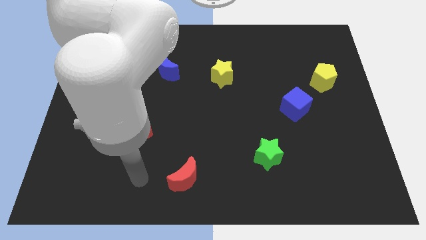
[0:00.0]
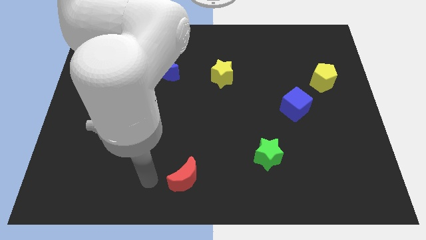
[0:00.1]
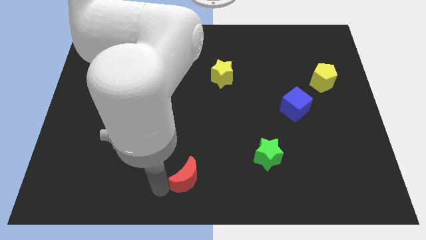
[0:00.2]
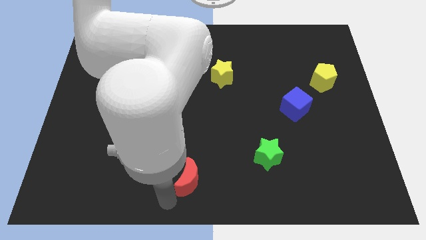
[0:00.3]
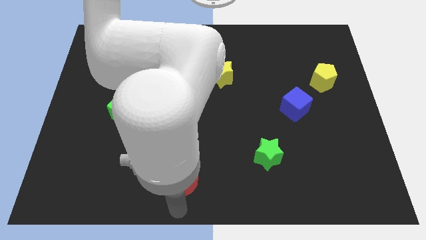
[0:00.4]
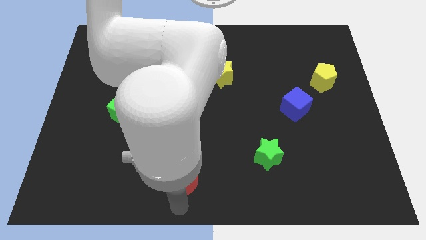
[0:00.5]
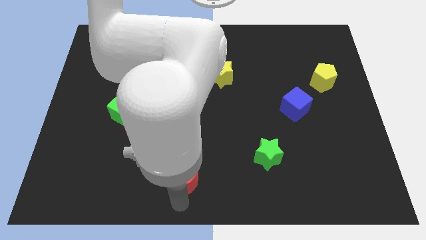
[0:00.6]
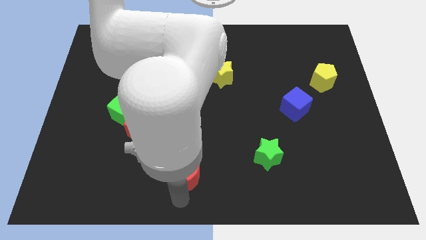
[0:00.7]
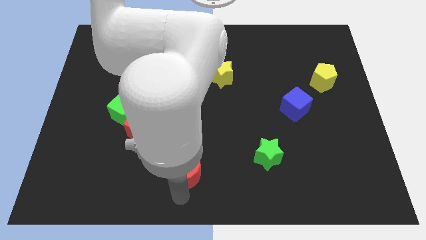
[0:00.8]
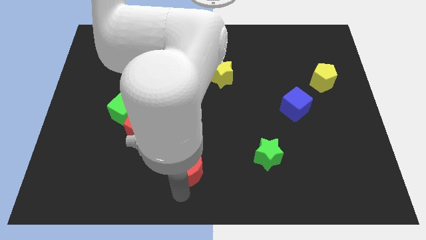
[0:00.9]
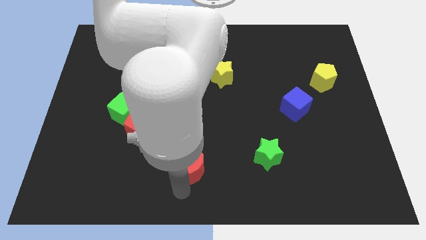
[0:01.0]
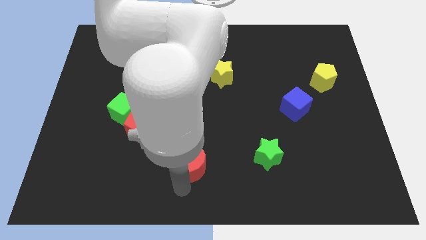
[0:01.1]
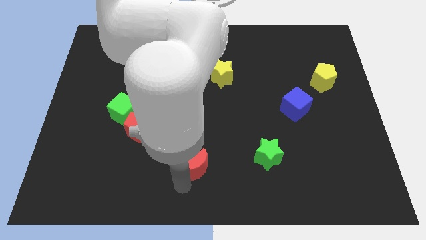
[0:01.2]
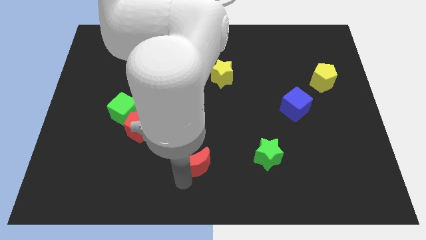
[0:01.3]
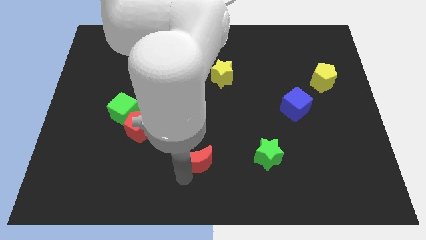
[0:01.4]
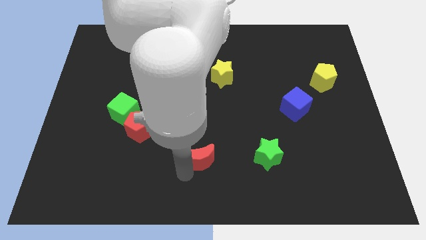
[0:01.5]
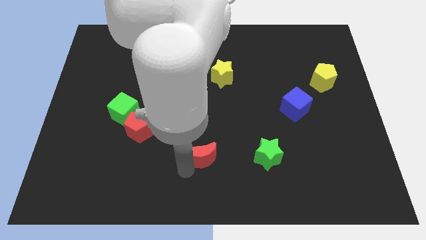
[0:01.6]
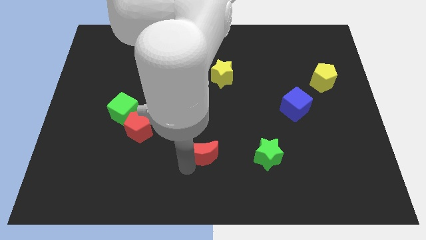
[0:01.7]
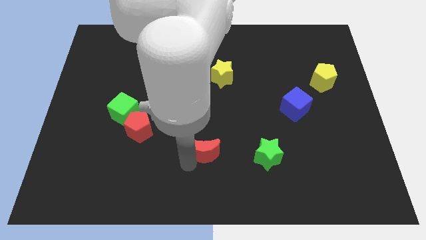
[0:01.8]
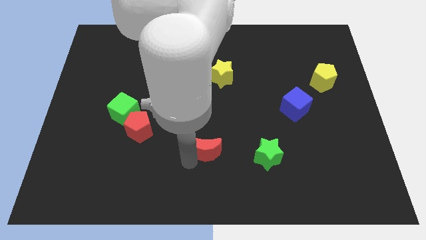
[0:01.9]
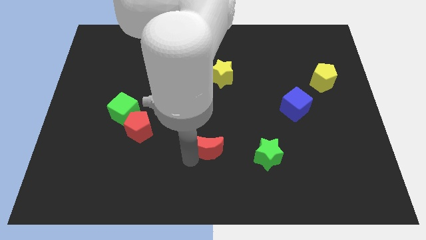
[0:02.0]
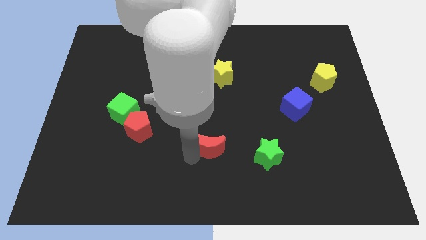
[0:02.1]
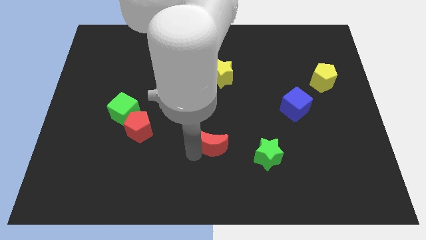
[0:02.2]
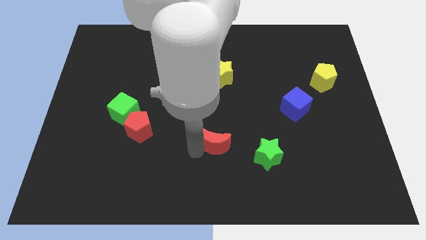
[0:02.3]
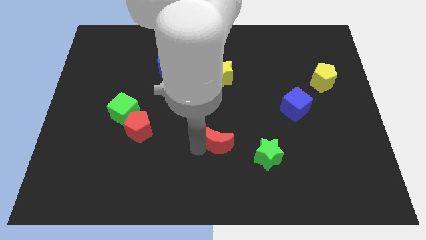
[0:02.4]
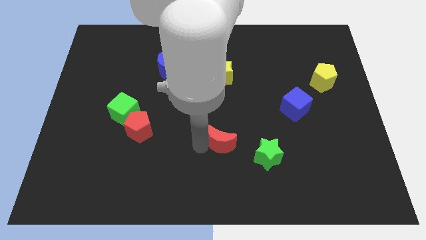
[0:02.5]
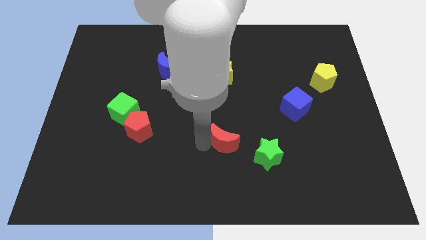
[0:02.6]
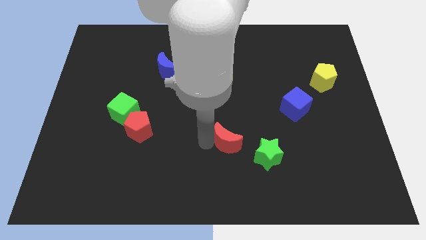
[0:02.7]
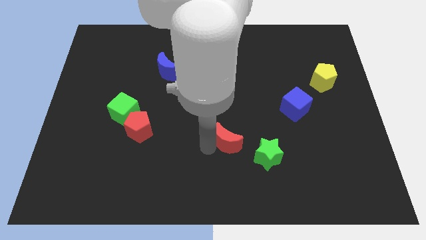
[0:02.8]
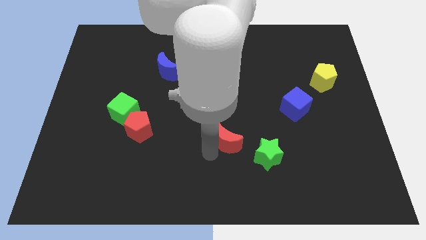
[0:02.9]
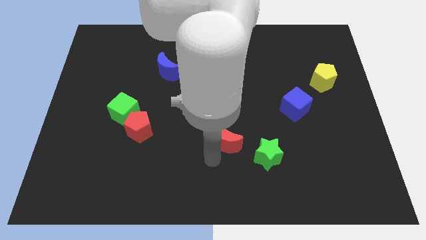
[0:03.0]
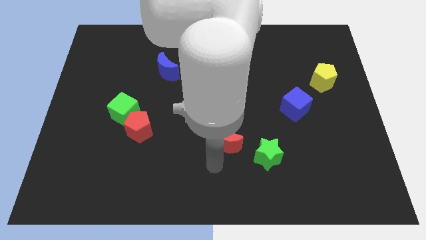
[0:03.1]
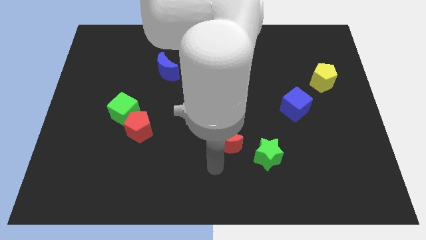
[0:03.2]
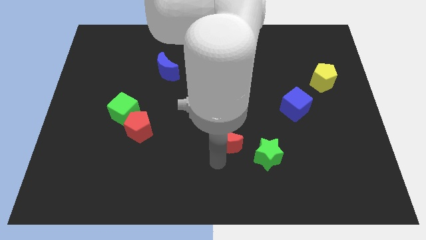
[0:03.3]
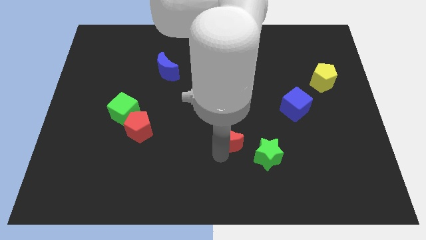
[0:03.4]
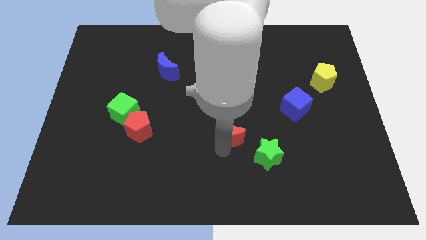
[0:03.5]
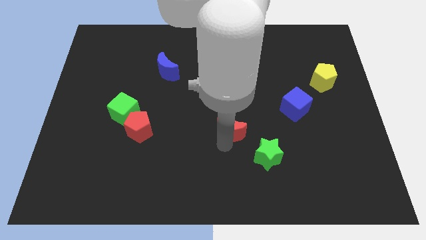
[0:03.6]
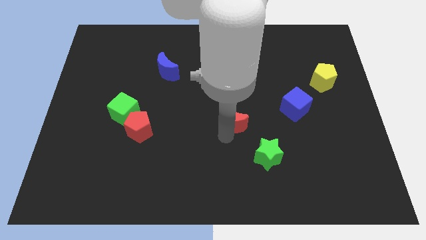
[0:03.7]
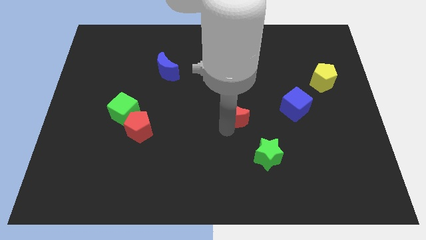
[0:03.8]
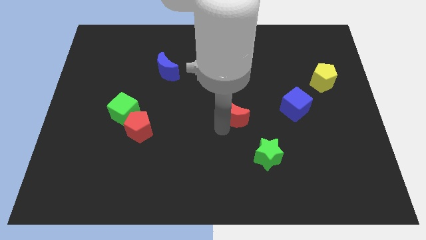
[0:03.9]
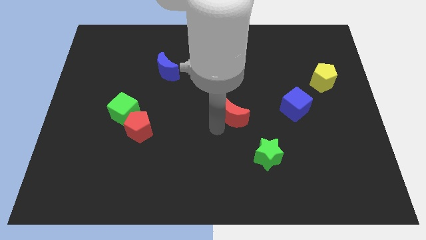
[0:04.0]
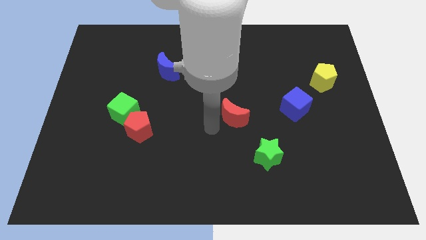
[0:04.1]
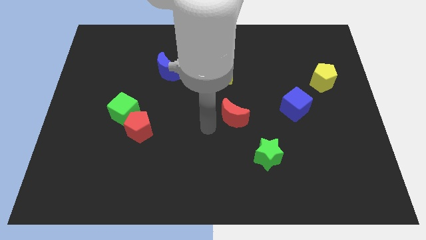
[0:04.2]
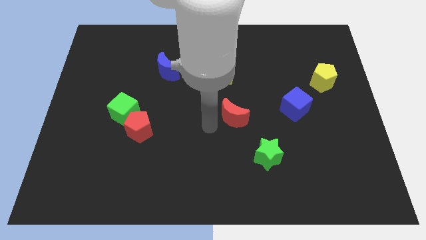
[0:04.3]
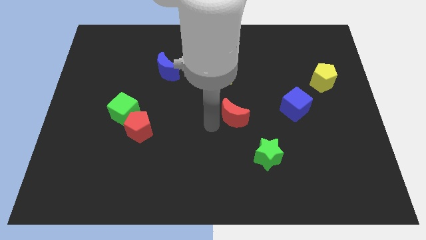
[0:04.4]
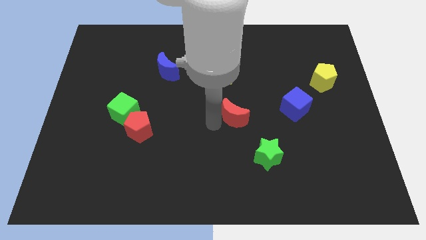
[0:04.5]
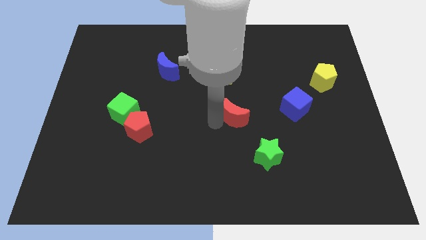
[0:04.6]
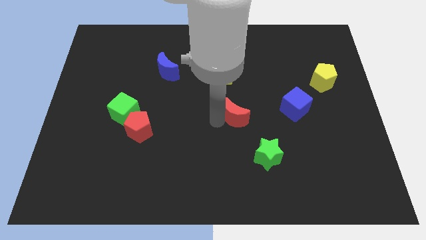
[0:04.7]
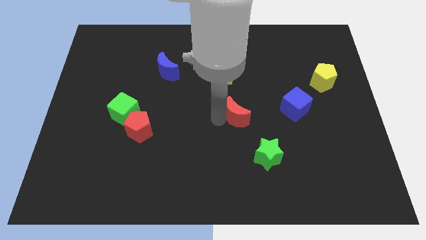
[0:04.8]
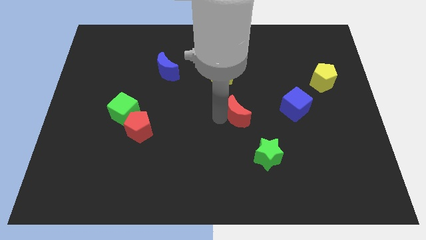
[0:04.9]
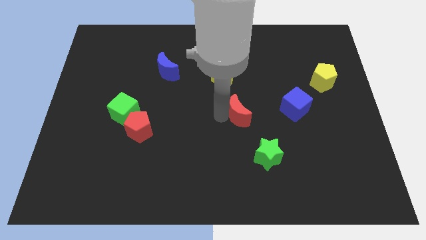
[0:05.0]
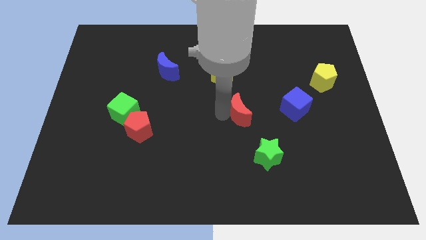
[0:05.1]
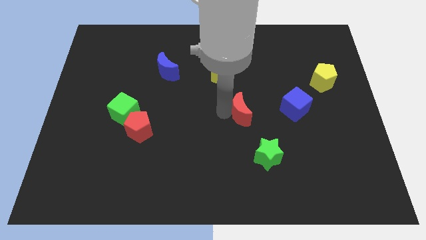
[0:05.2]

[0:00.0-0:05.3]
move the red moon up and to the right diagonally

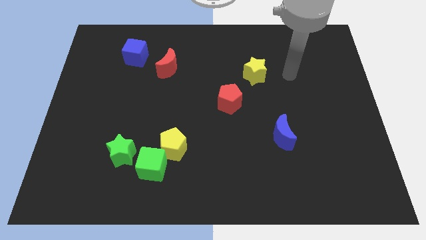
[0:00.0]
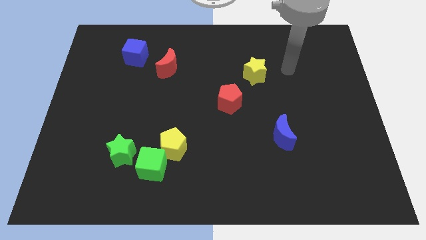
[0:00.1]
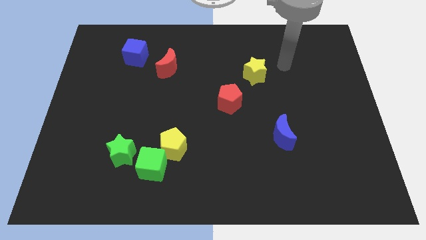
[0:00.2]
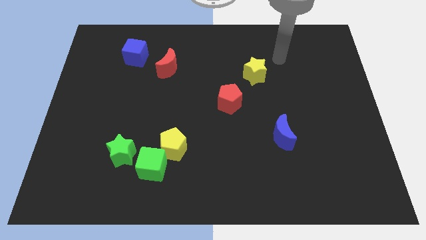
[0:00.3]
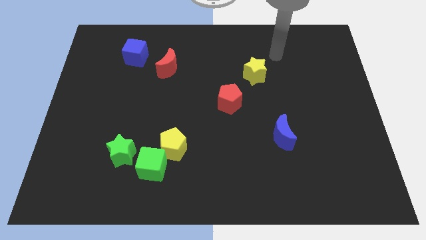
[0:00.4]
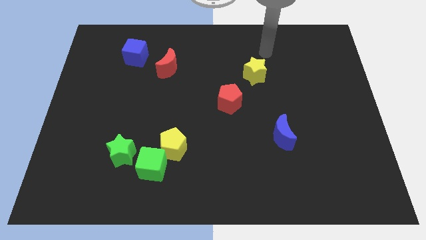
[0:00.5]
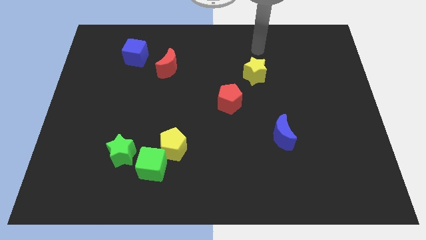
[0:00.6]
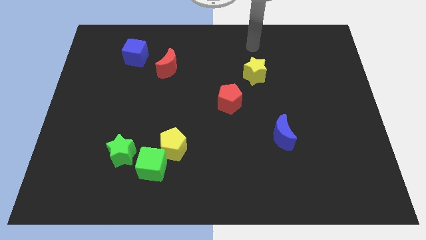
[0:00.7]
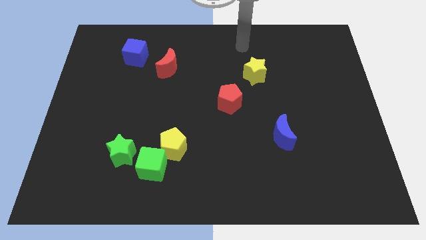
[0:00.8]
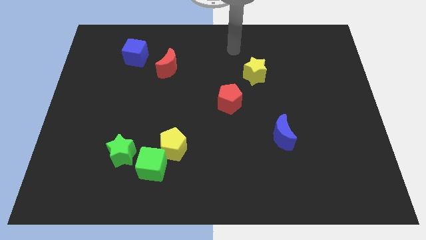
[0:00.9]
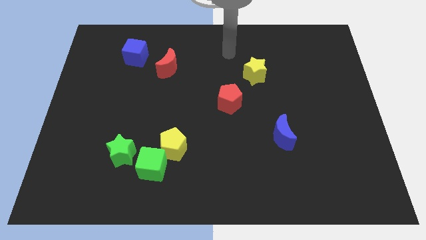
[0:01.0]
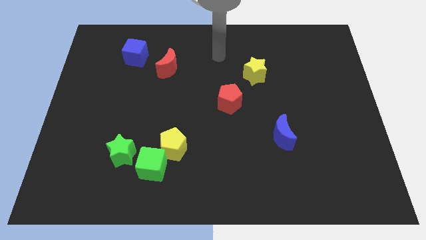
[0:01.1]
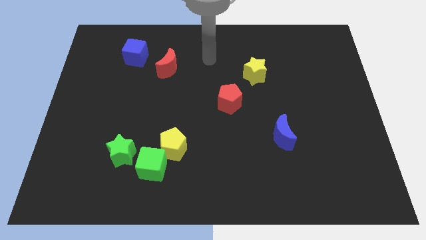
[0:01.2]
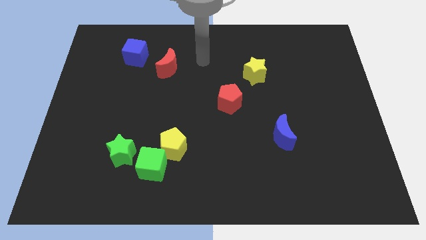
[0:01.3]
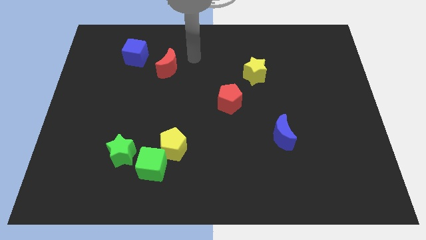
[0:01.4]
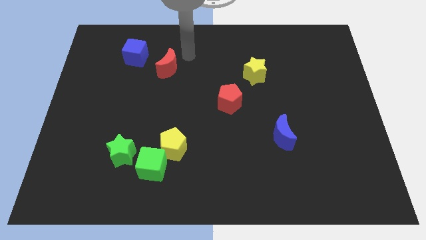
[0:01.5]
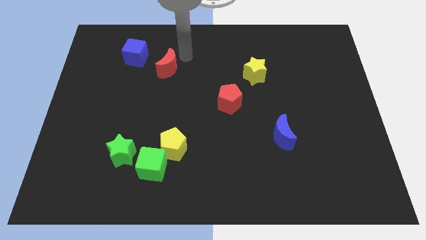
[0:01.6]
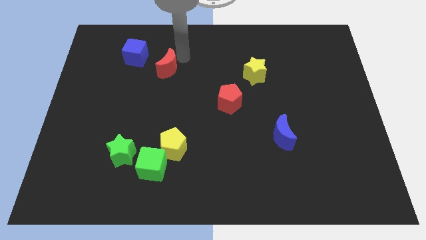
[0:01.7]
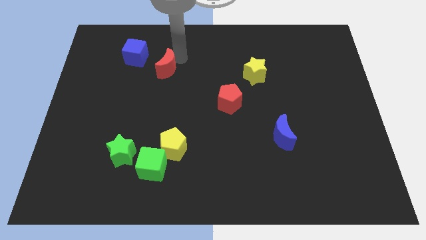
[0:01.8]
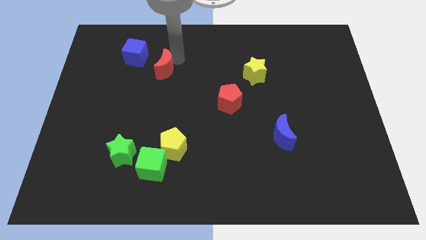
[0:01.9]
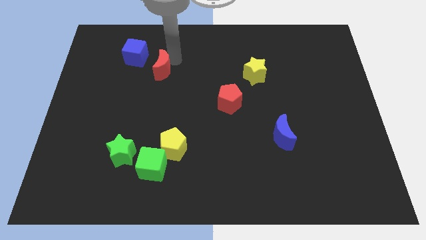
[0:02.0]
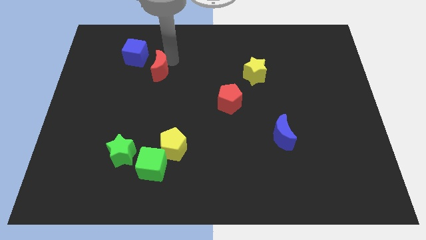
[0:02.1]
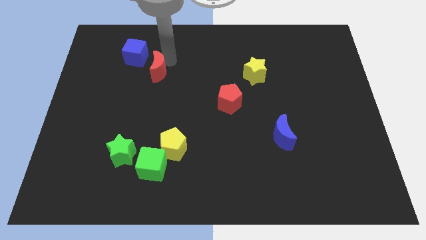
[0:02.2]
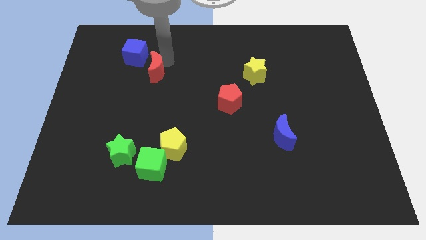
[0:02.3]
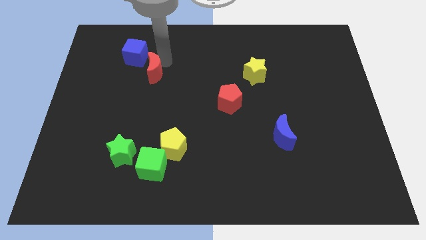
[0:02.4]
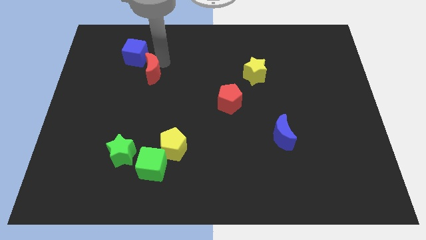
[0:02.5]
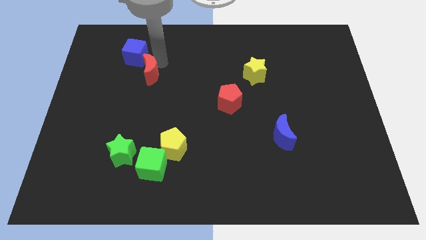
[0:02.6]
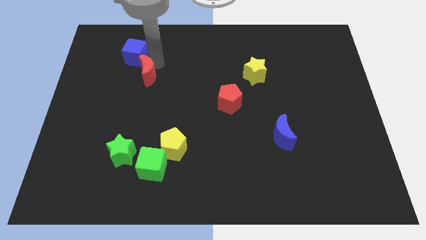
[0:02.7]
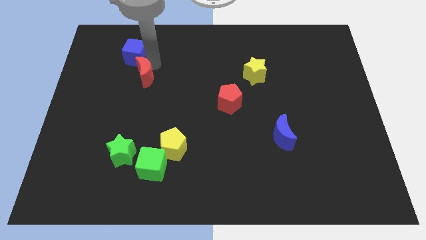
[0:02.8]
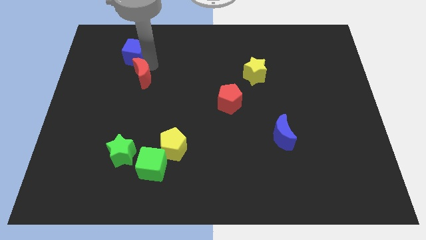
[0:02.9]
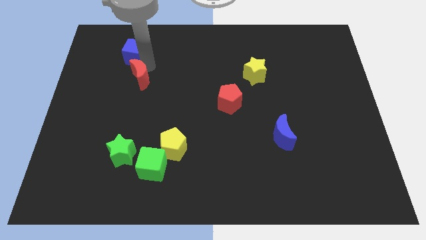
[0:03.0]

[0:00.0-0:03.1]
push the red moon a bit diagonally downwards and to the left
